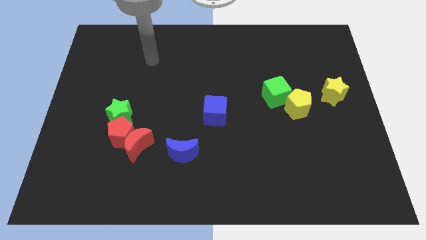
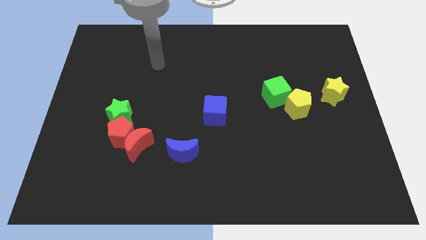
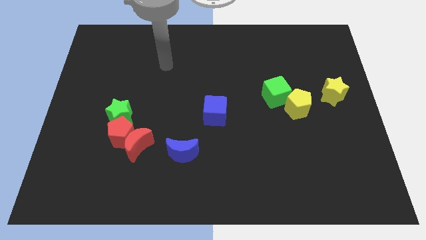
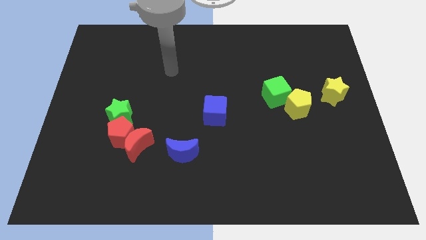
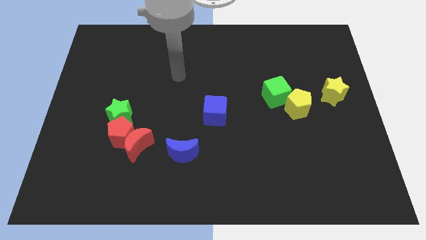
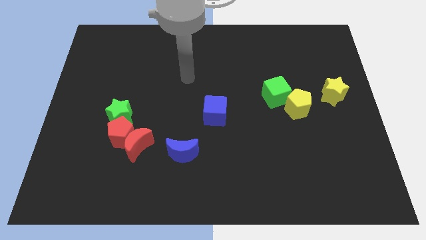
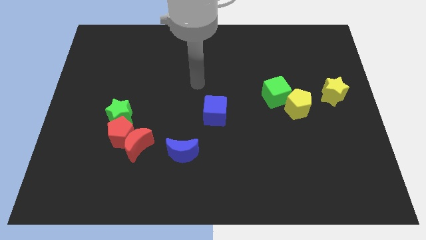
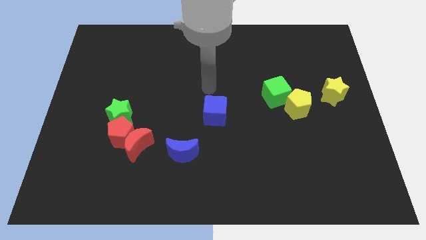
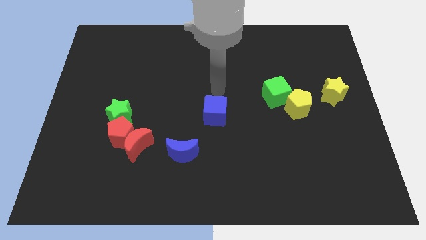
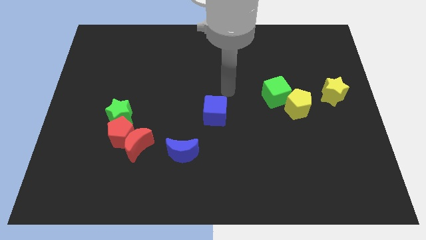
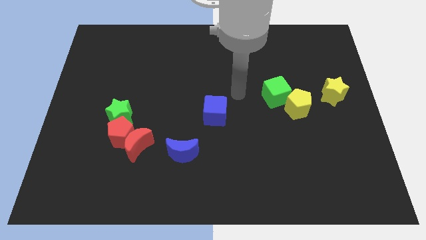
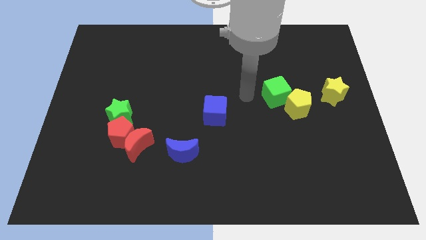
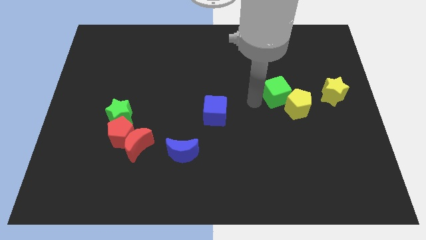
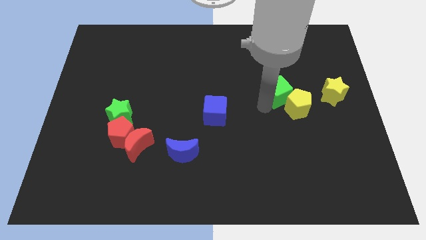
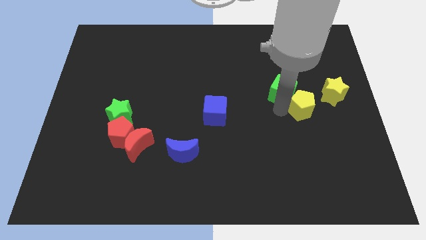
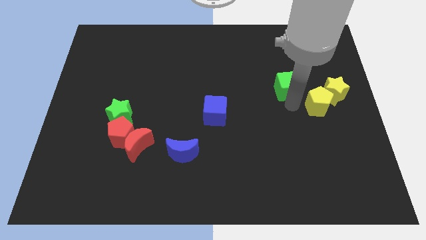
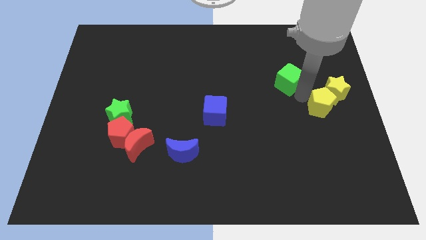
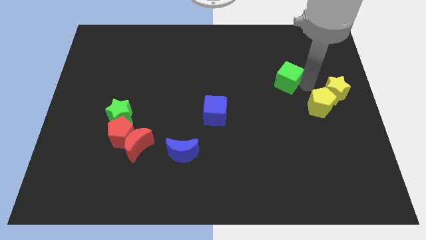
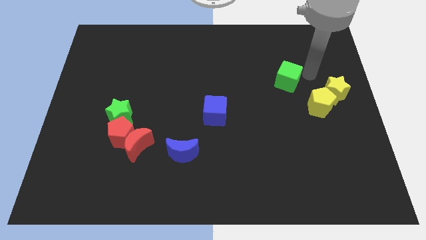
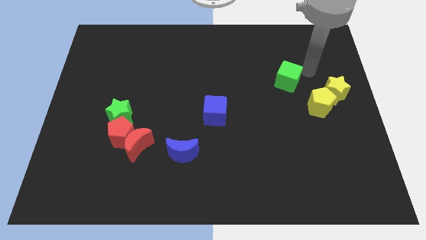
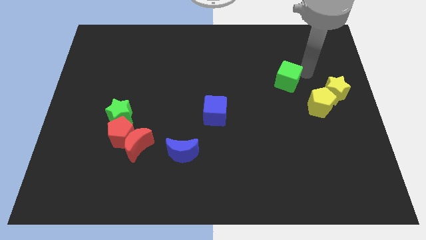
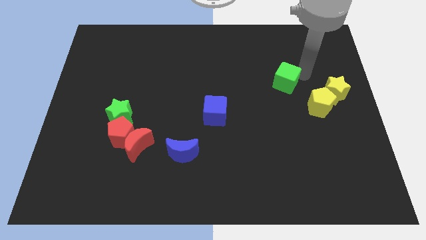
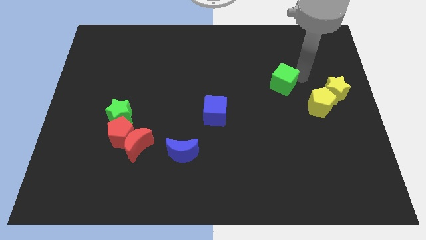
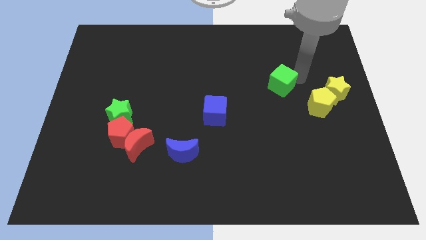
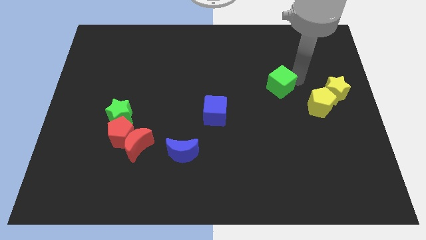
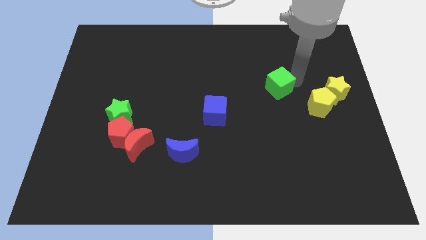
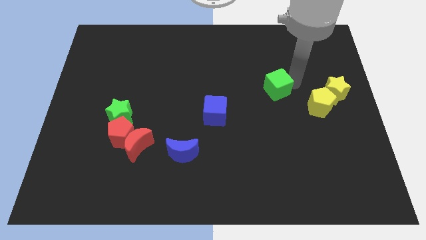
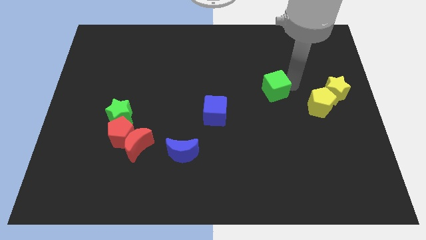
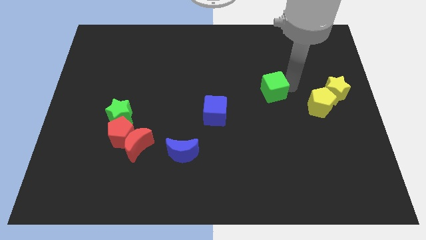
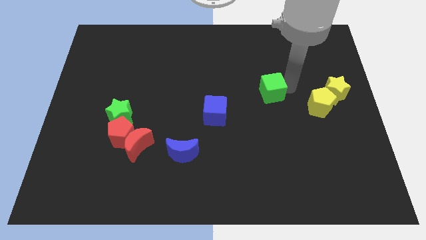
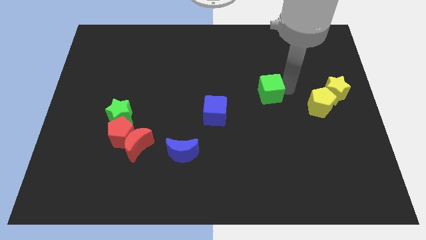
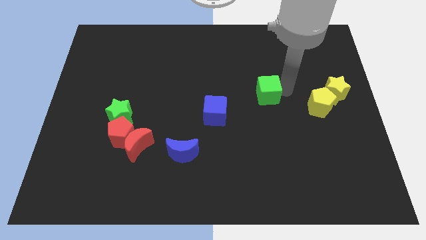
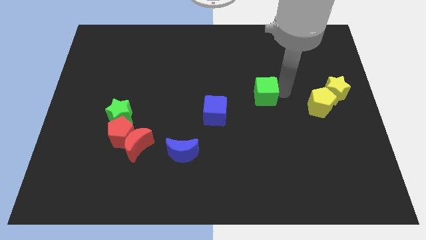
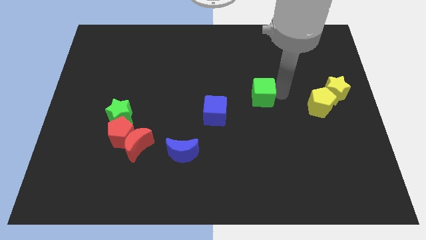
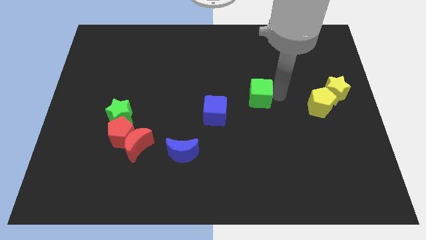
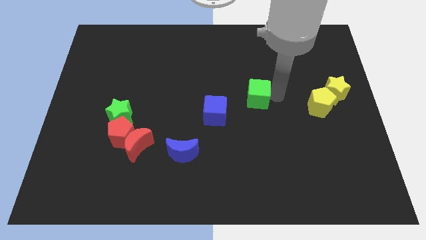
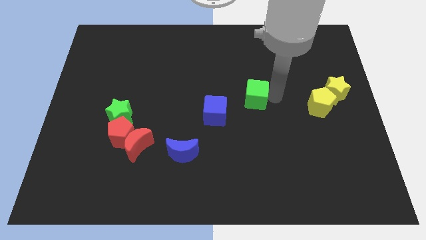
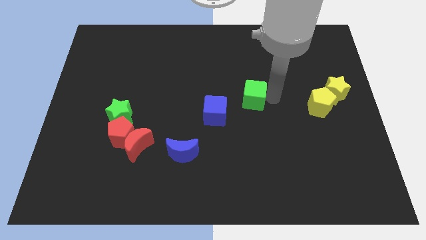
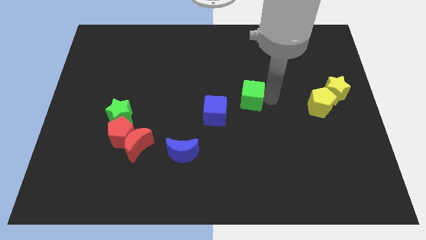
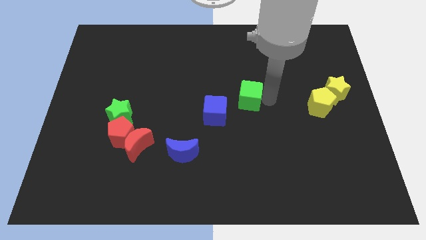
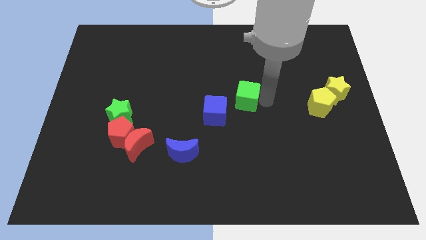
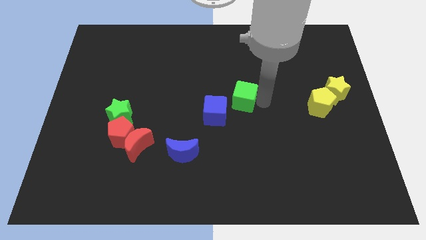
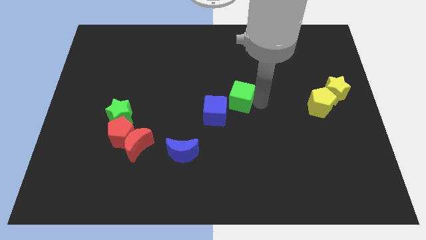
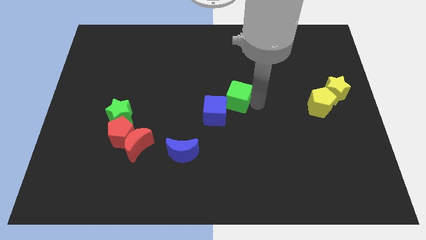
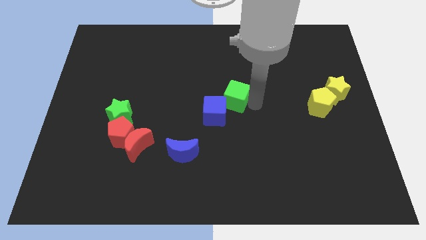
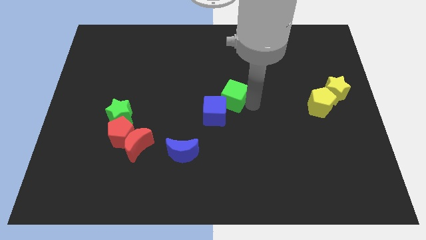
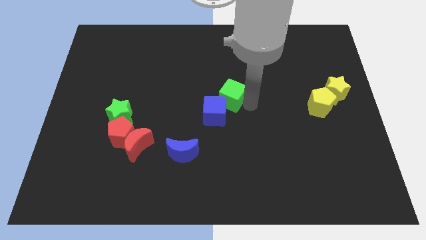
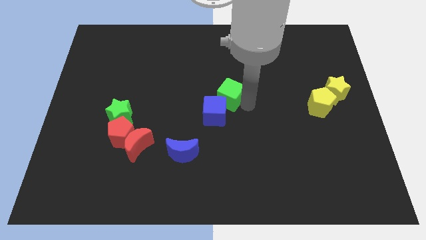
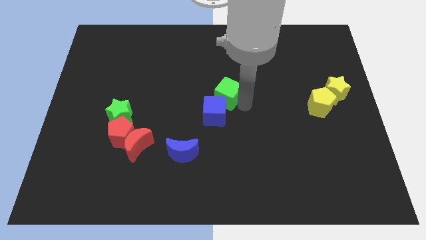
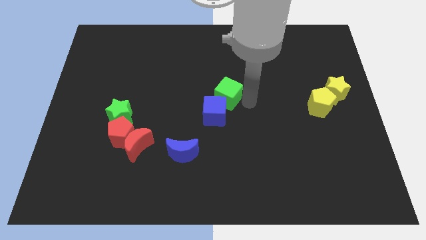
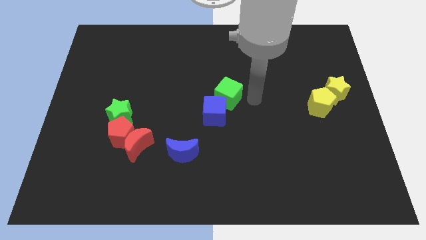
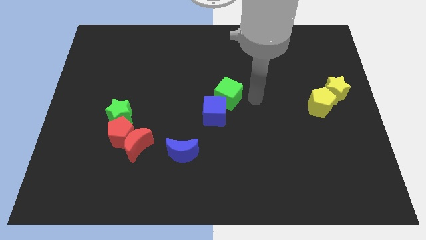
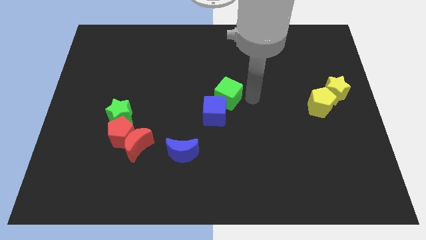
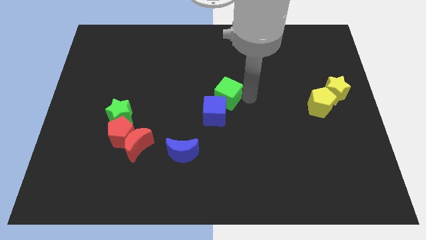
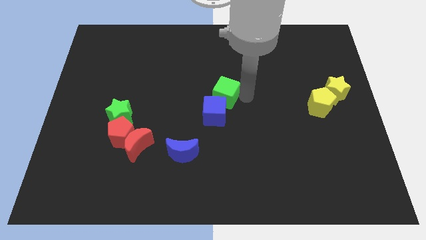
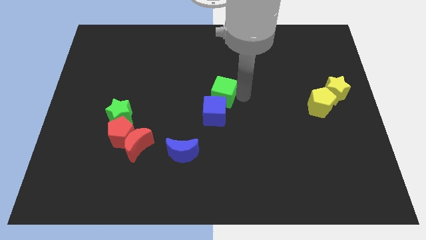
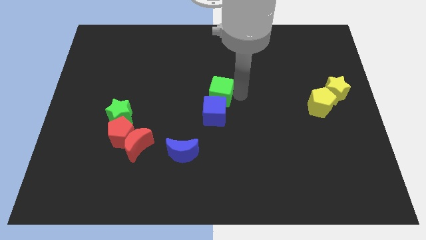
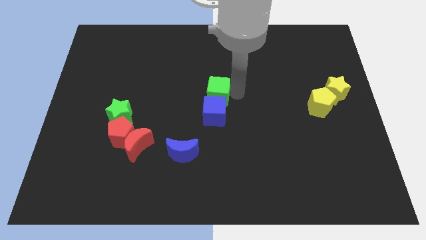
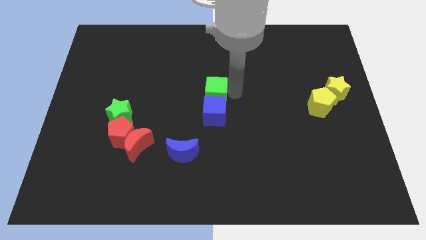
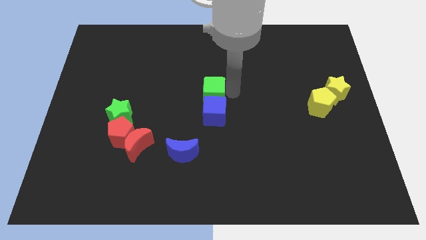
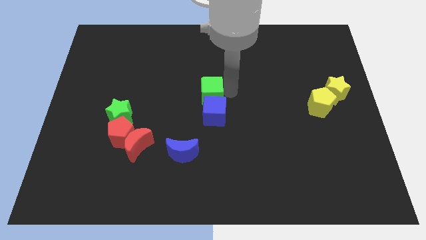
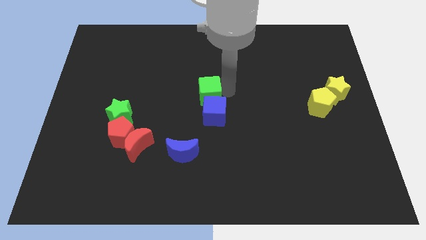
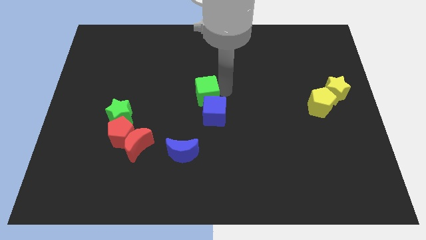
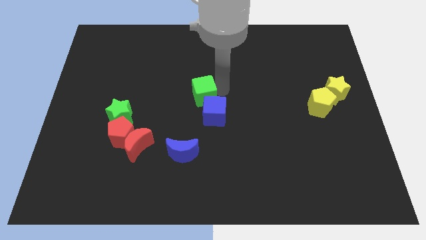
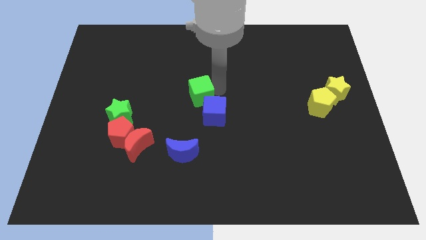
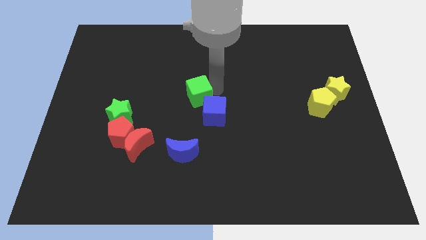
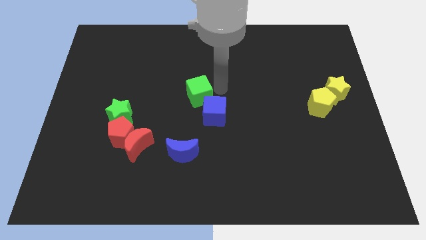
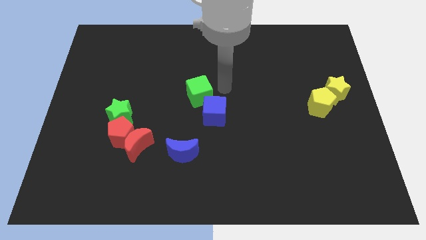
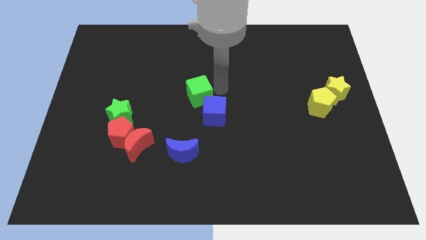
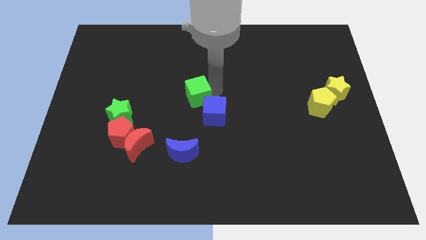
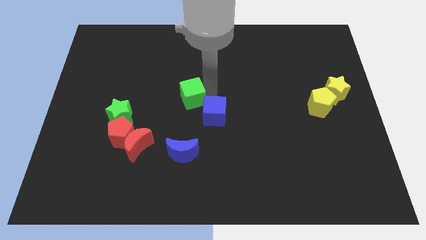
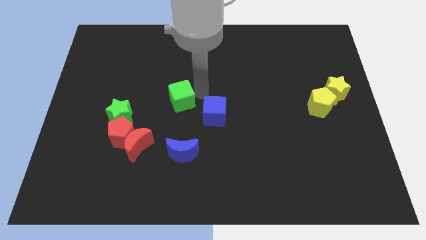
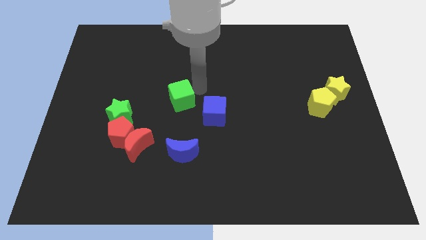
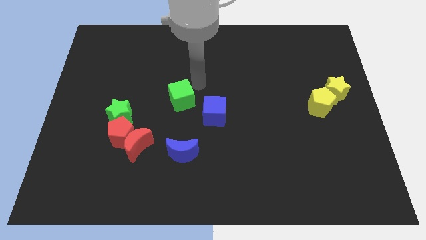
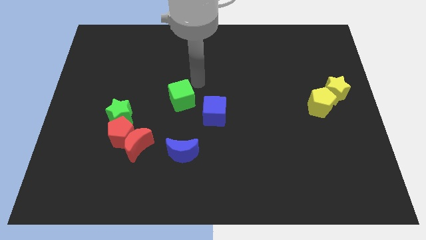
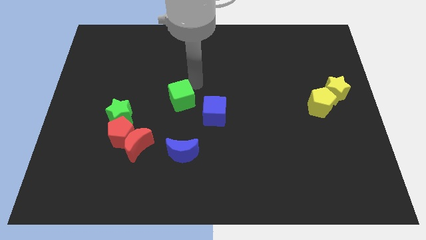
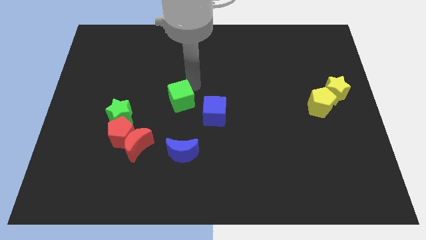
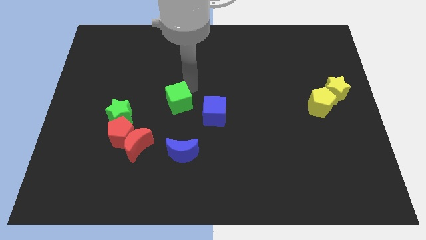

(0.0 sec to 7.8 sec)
move the green cube just right of the green star
